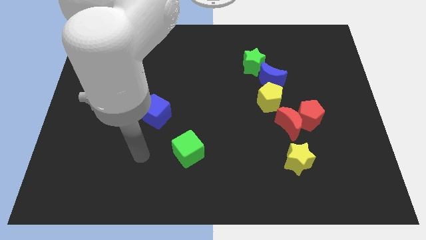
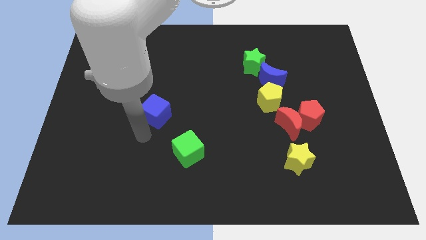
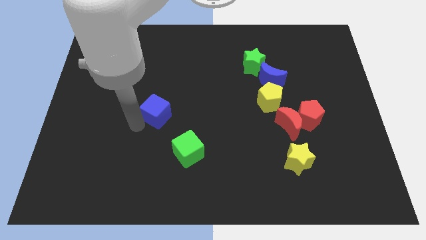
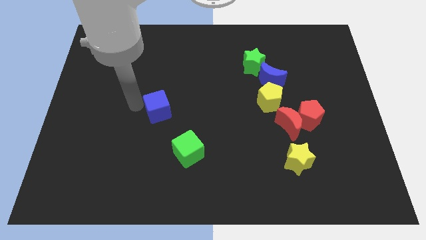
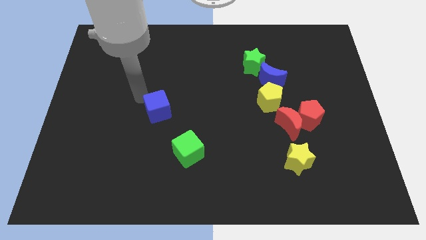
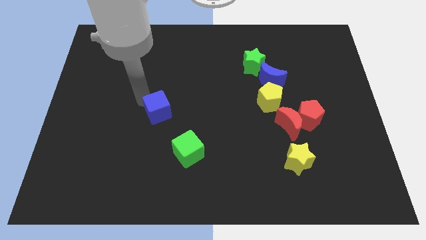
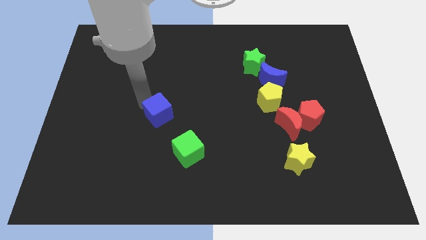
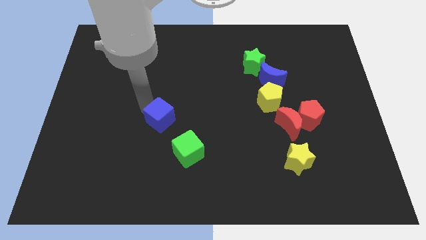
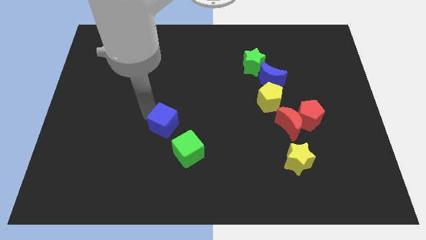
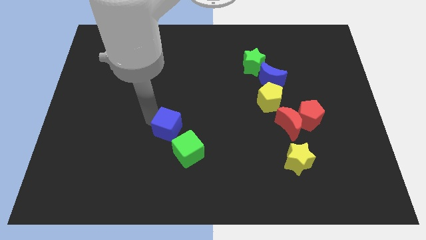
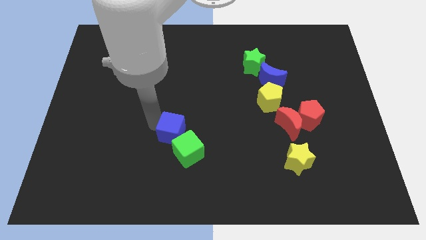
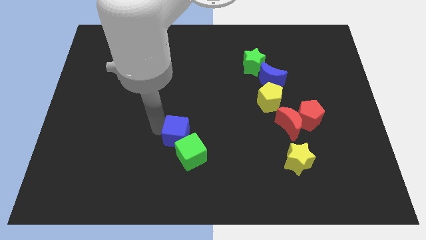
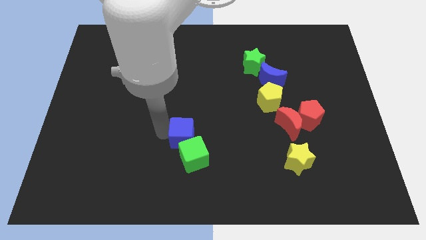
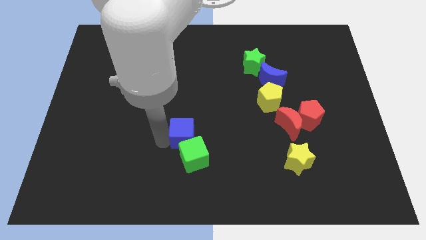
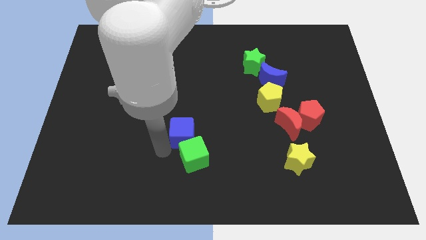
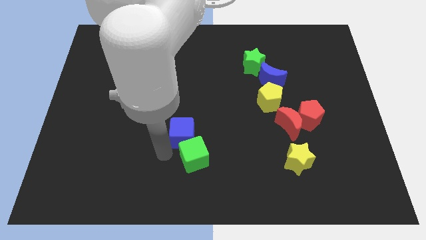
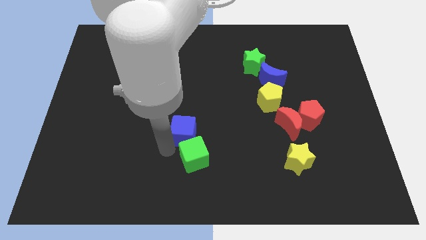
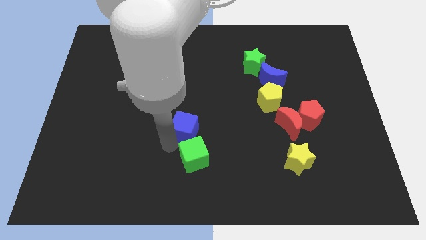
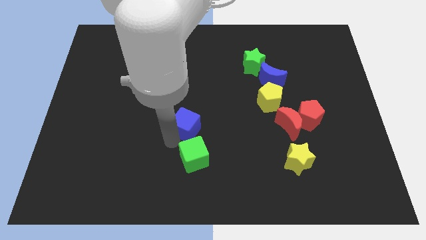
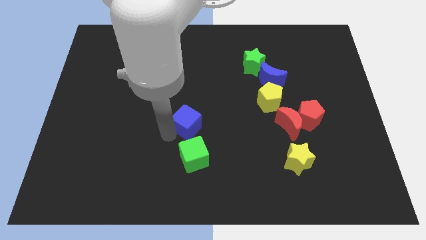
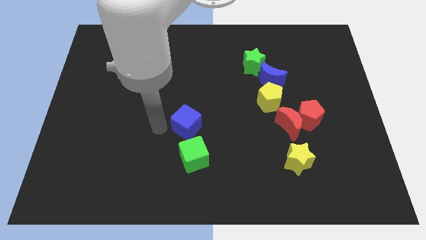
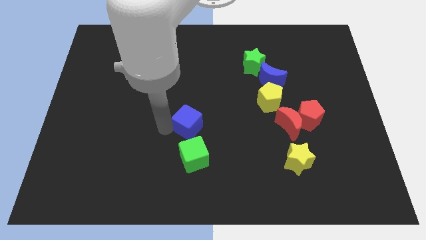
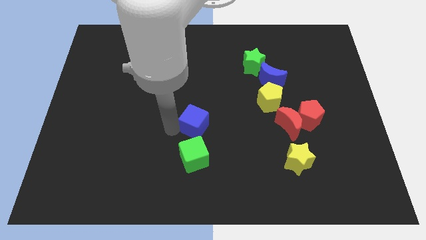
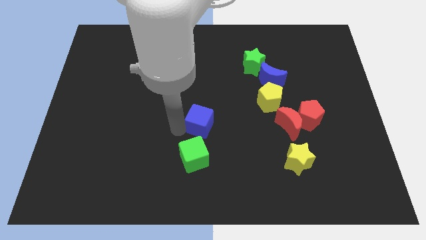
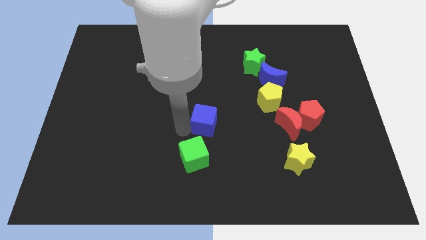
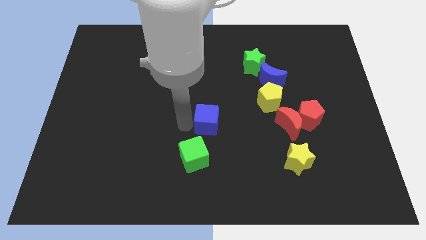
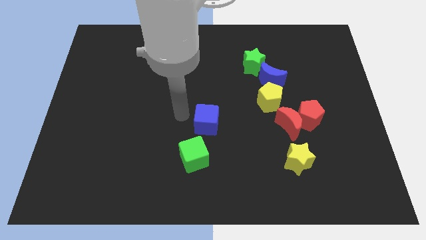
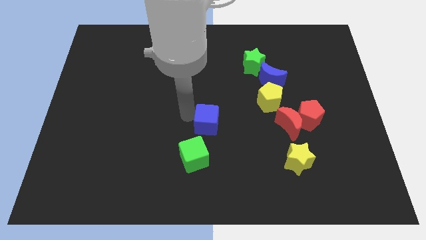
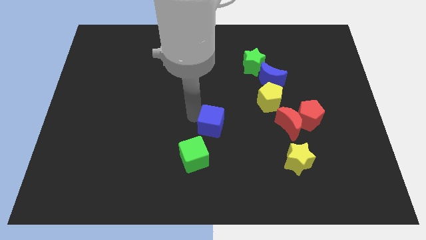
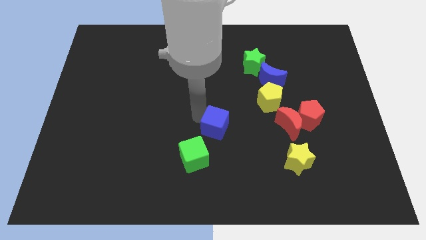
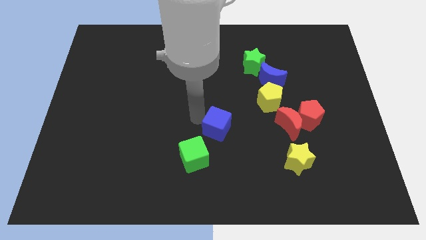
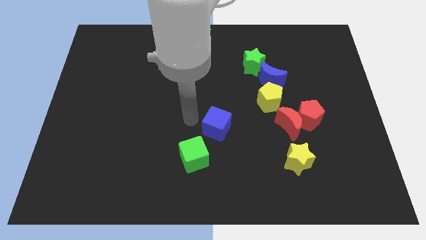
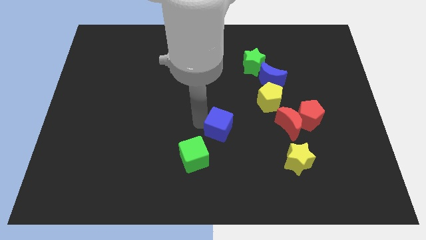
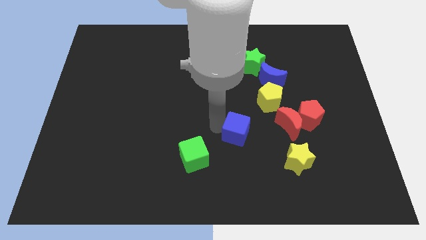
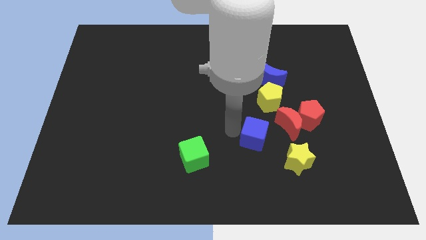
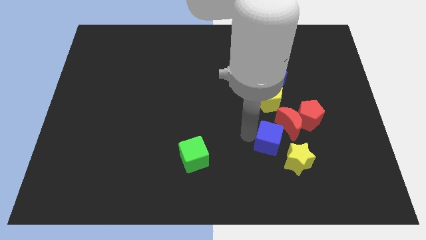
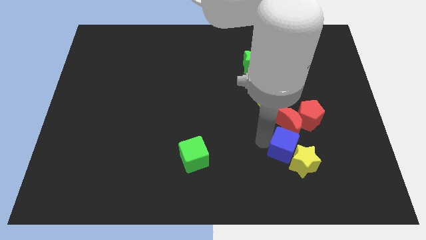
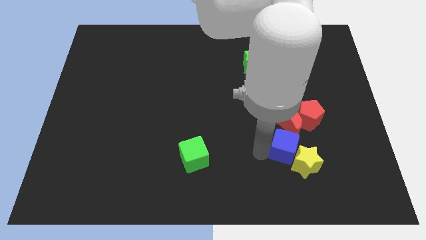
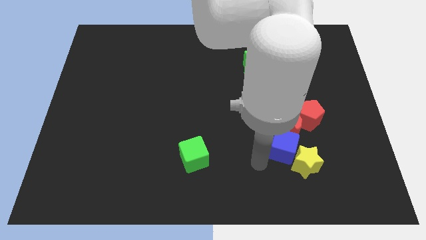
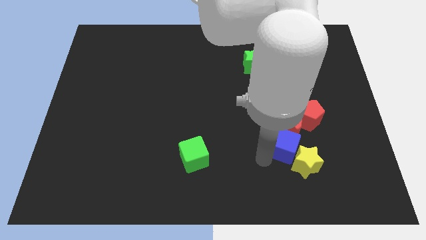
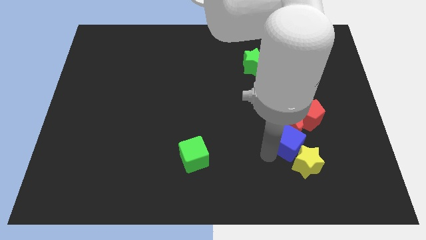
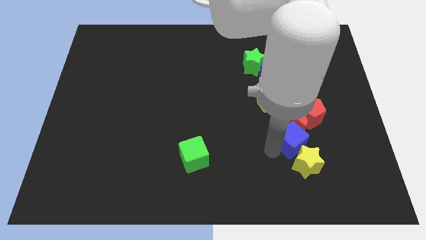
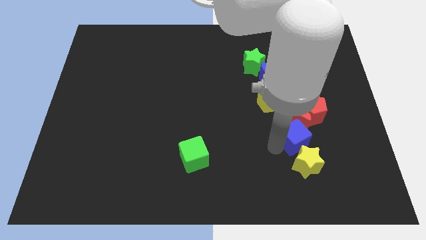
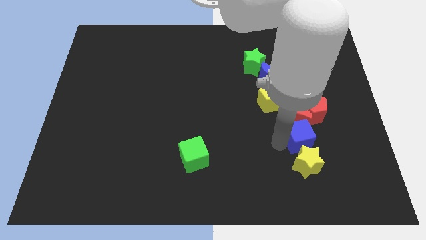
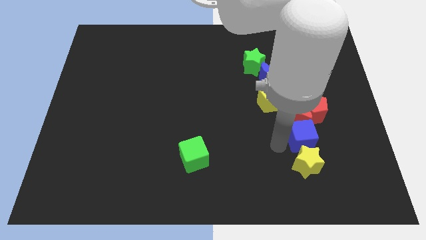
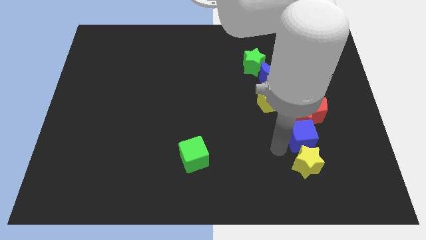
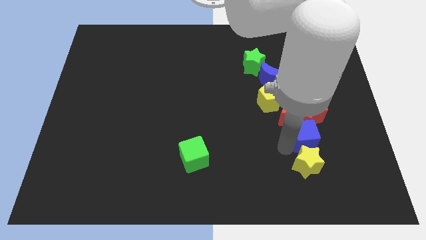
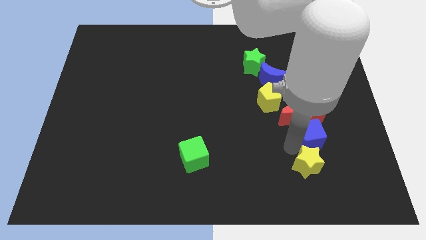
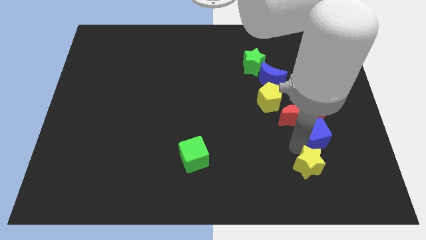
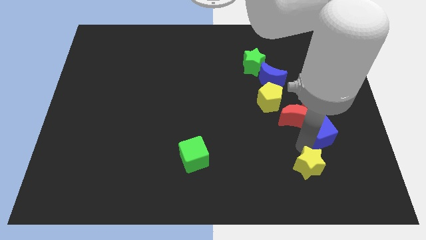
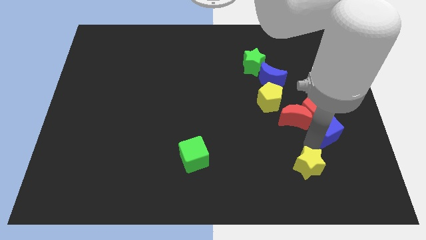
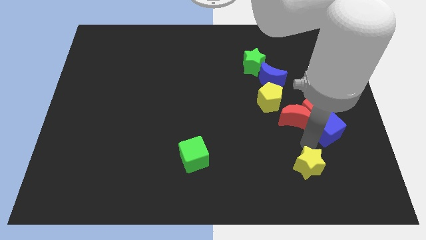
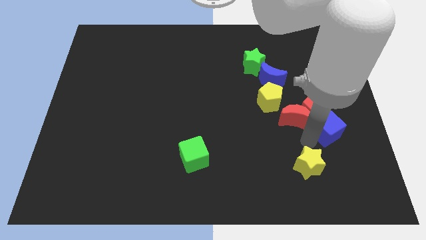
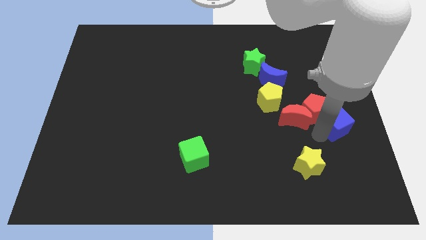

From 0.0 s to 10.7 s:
push the blue cube to the right side
